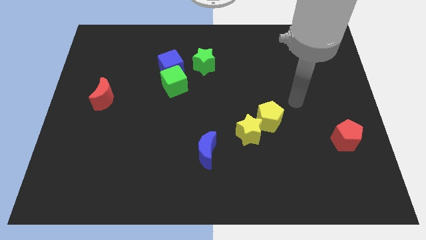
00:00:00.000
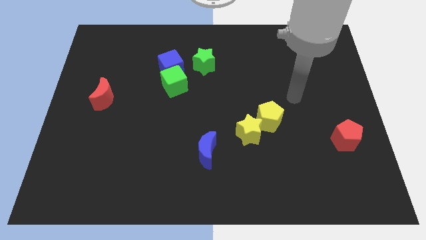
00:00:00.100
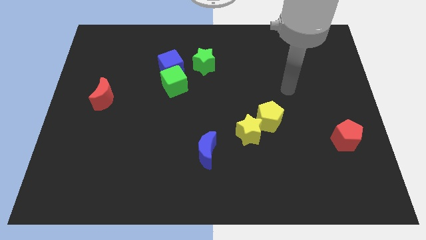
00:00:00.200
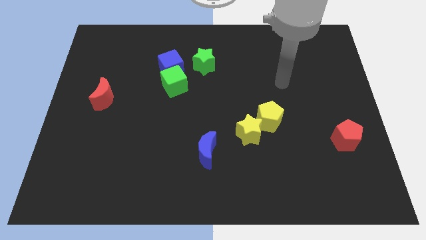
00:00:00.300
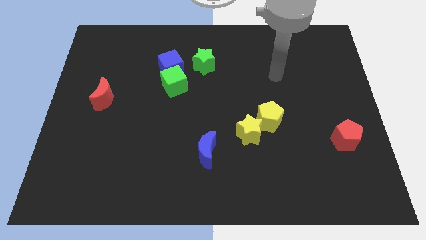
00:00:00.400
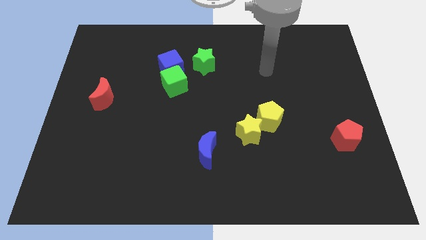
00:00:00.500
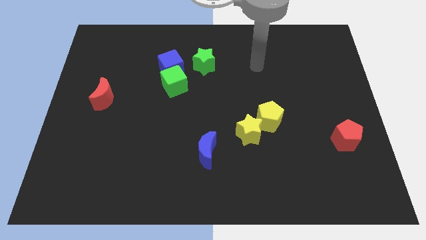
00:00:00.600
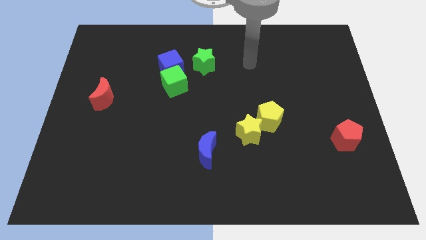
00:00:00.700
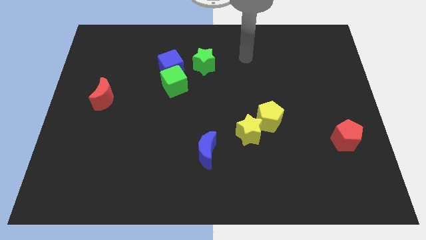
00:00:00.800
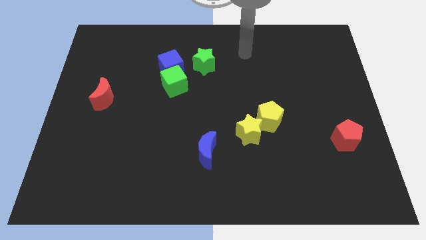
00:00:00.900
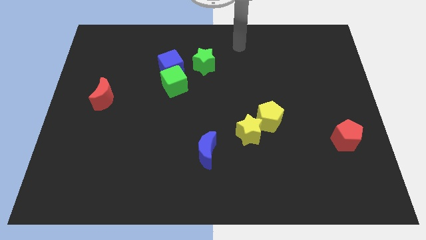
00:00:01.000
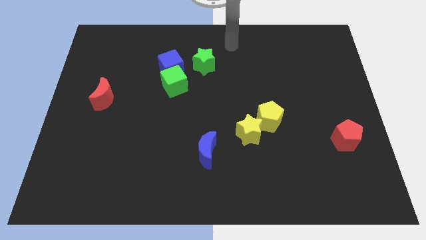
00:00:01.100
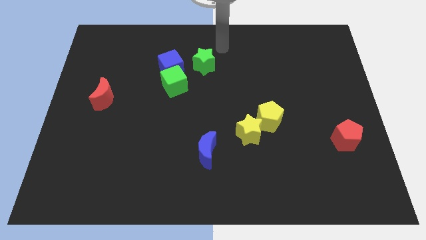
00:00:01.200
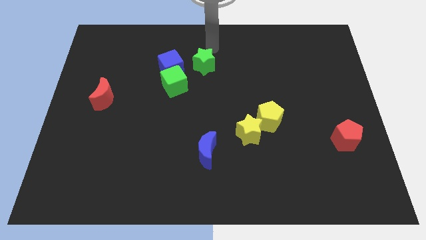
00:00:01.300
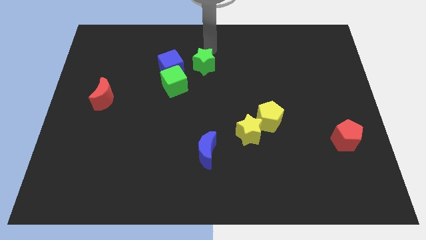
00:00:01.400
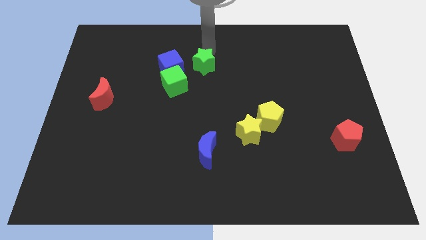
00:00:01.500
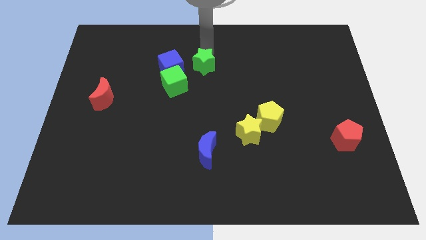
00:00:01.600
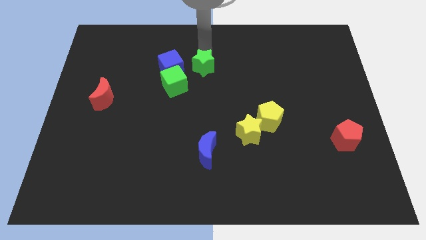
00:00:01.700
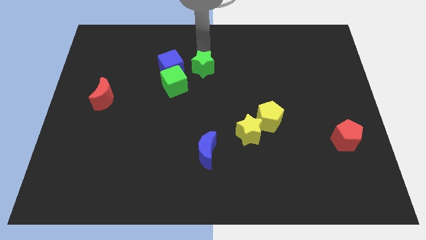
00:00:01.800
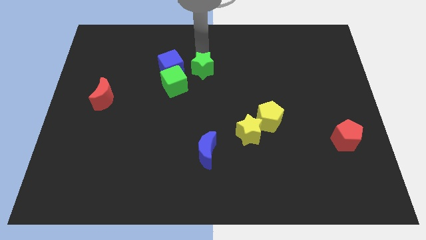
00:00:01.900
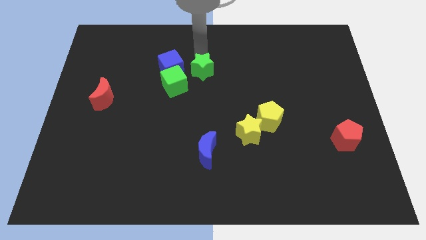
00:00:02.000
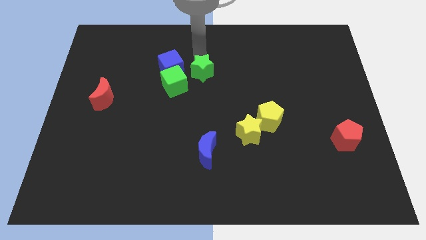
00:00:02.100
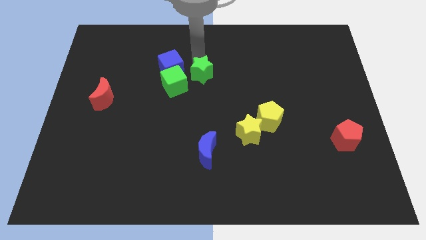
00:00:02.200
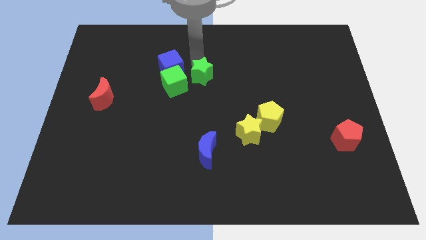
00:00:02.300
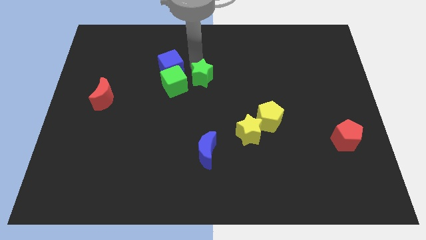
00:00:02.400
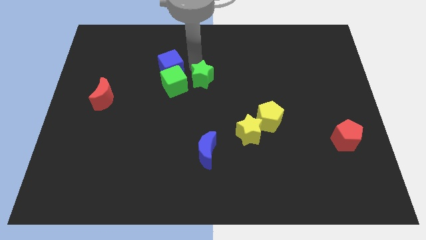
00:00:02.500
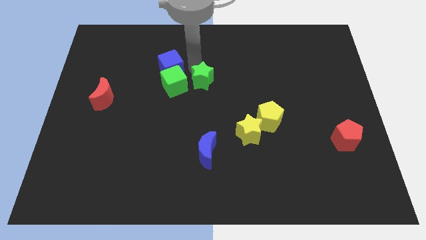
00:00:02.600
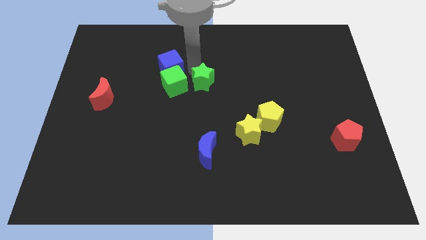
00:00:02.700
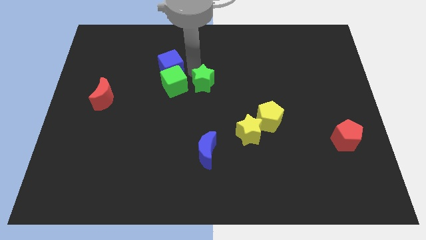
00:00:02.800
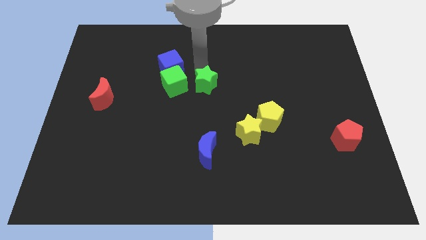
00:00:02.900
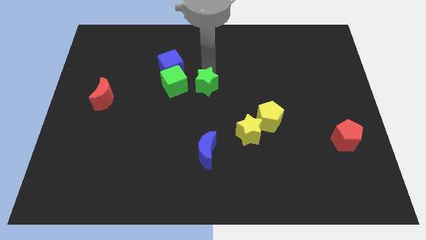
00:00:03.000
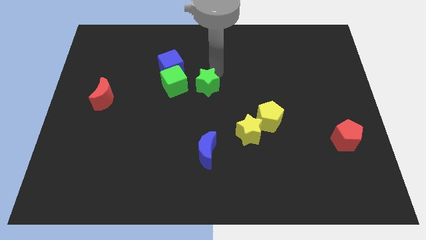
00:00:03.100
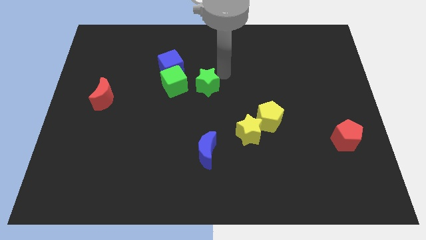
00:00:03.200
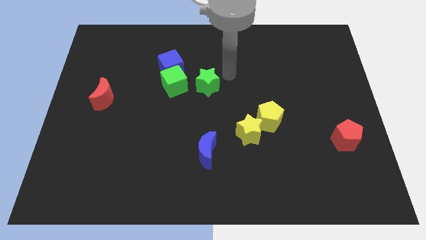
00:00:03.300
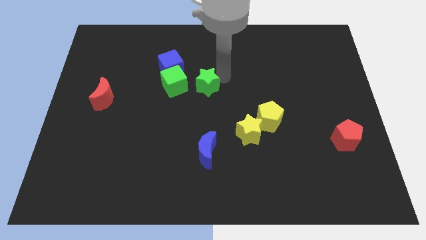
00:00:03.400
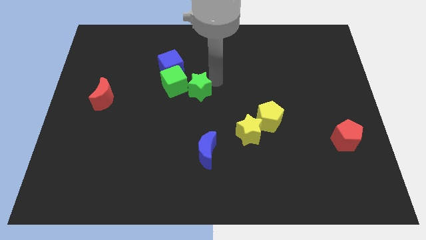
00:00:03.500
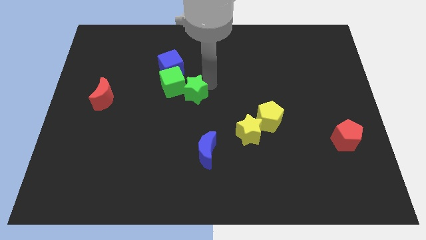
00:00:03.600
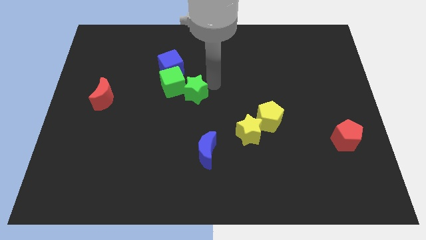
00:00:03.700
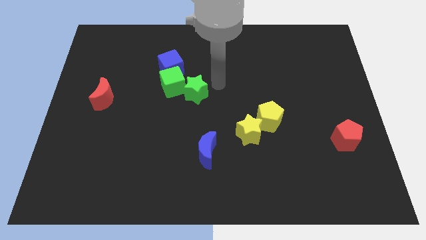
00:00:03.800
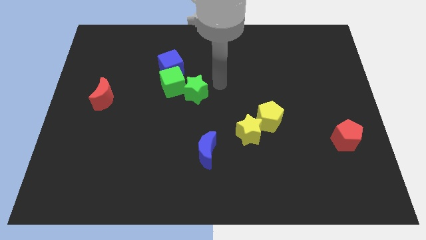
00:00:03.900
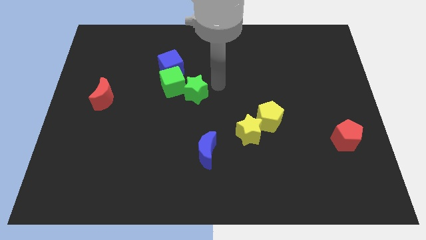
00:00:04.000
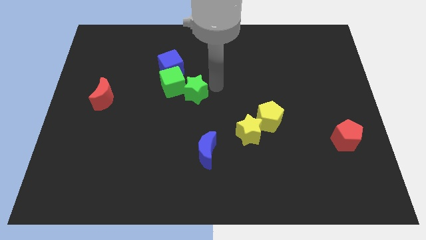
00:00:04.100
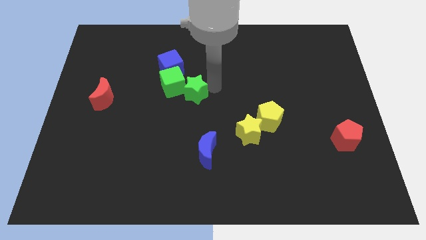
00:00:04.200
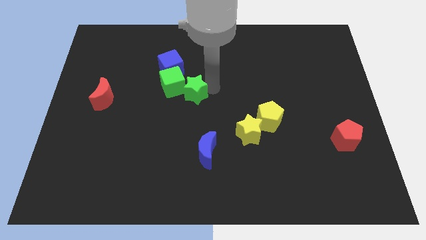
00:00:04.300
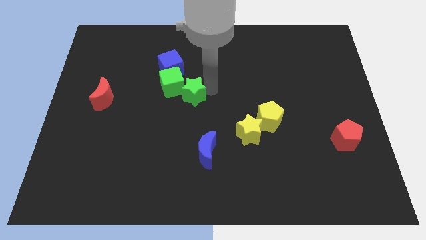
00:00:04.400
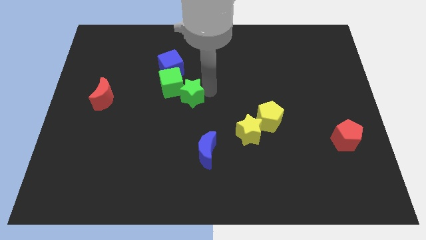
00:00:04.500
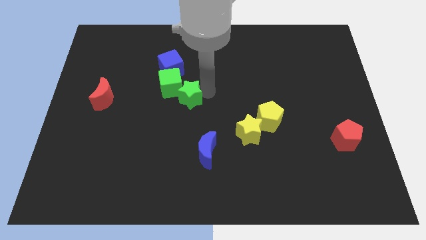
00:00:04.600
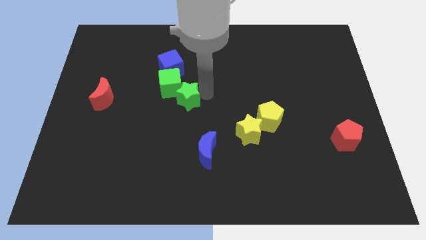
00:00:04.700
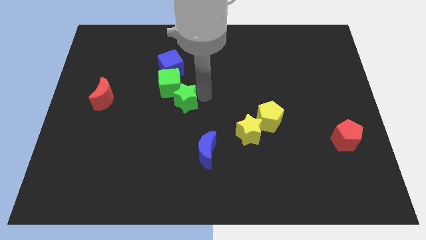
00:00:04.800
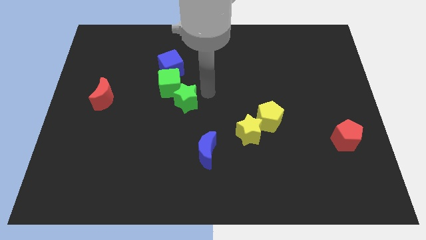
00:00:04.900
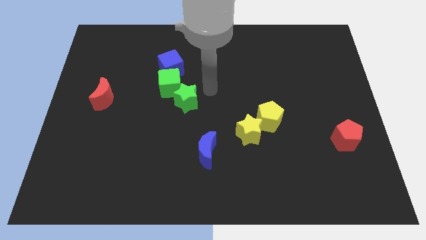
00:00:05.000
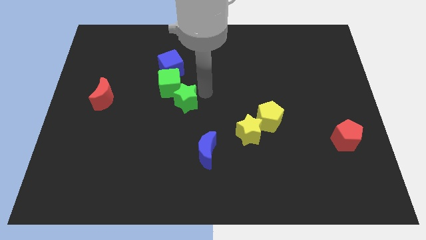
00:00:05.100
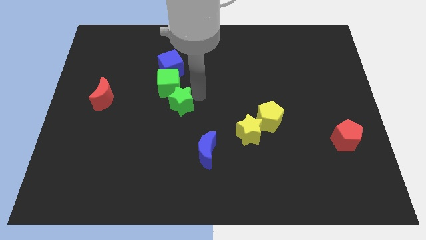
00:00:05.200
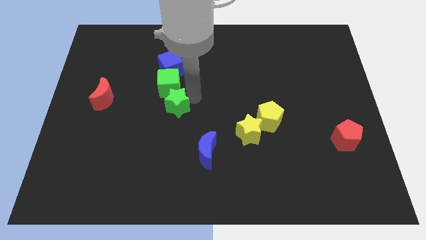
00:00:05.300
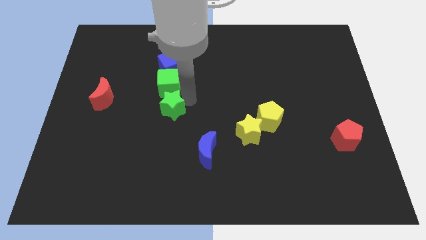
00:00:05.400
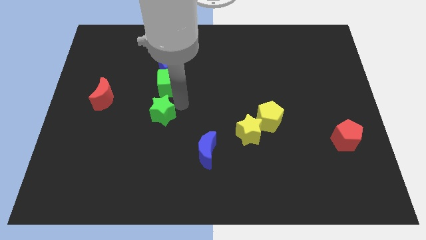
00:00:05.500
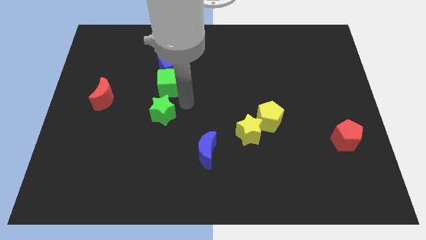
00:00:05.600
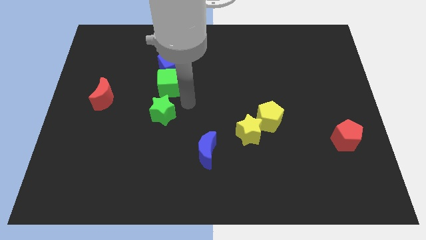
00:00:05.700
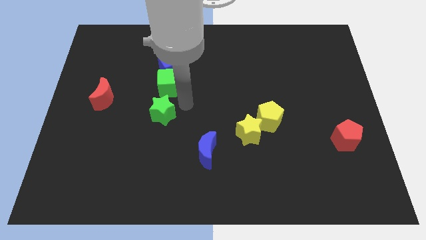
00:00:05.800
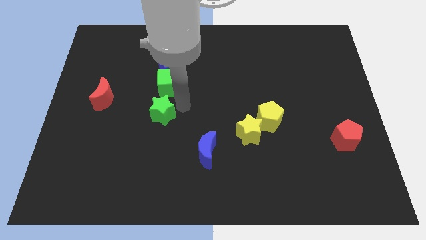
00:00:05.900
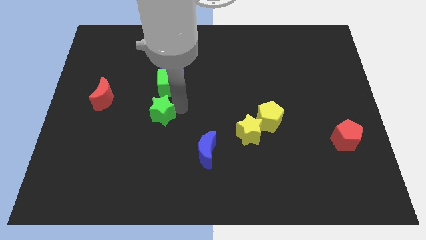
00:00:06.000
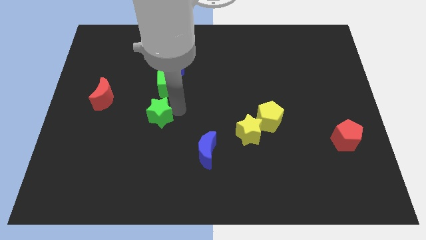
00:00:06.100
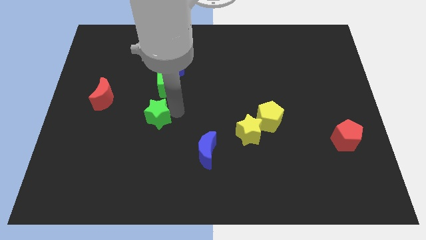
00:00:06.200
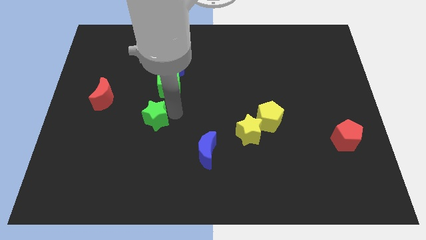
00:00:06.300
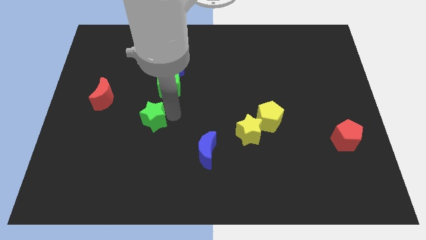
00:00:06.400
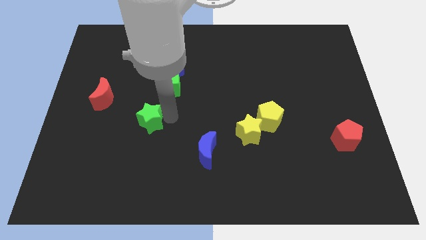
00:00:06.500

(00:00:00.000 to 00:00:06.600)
move the green star down and left

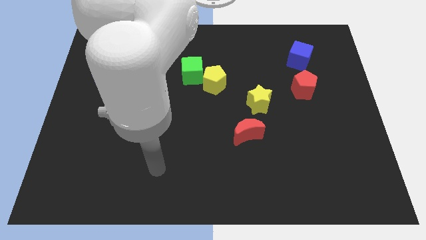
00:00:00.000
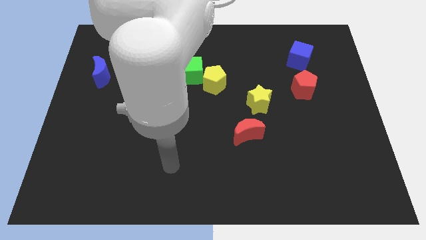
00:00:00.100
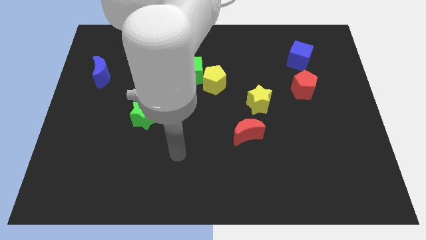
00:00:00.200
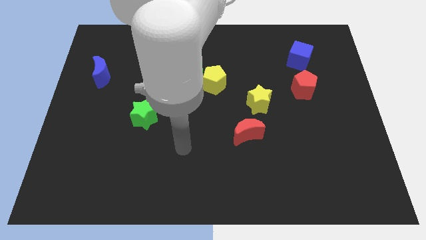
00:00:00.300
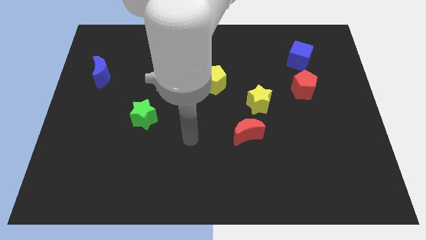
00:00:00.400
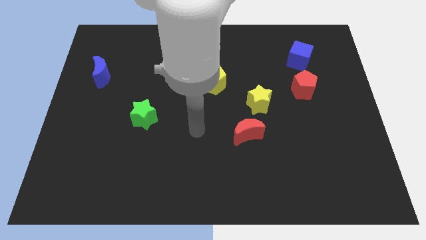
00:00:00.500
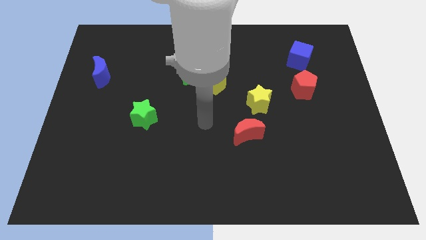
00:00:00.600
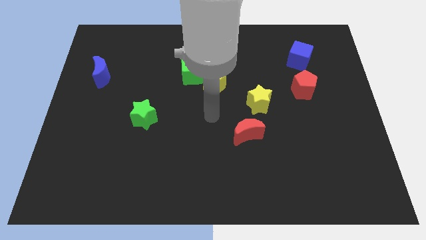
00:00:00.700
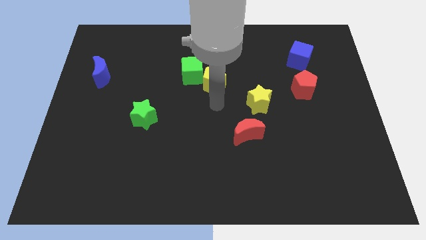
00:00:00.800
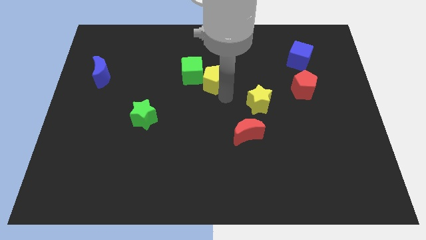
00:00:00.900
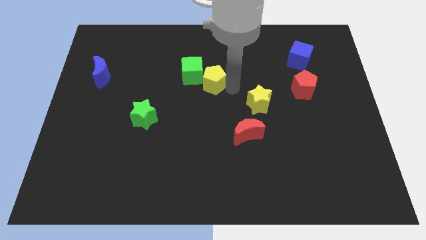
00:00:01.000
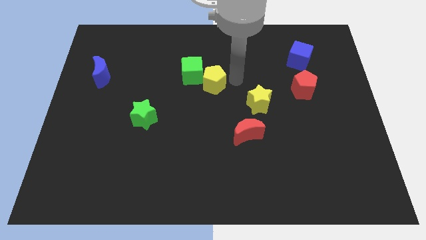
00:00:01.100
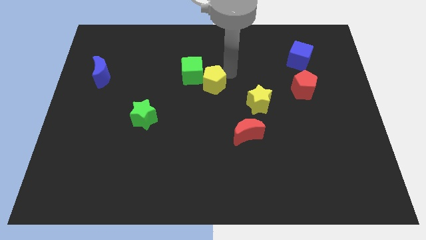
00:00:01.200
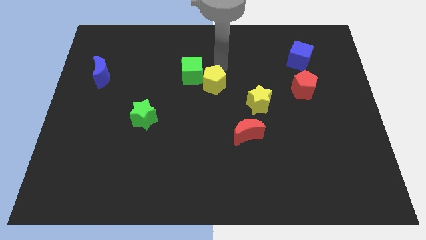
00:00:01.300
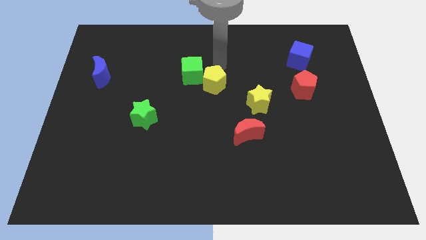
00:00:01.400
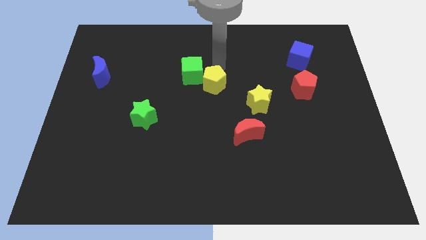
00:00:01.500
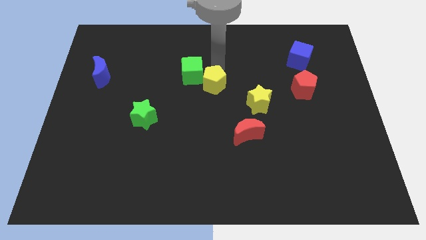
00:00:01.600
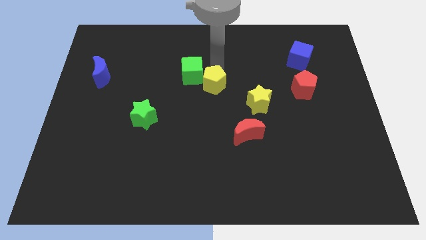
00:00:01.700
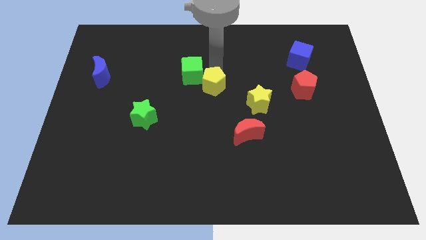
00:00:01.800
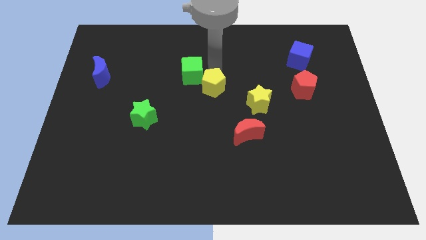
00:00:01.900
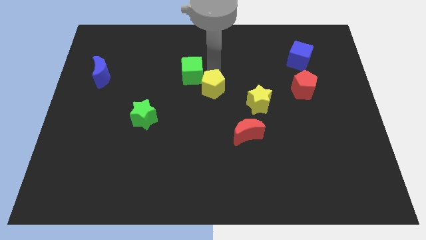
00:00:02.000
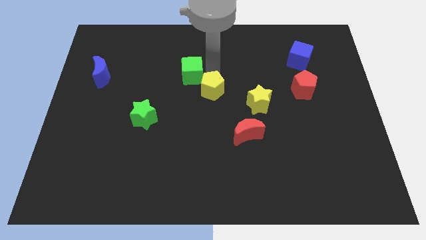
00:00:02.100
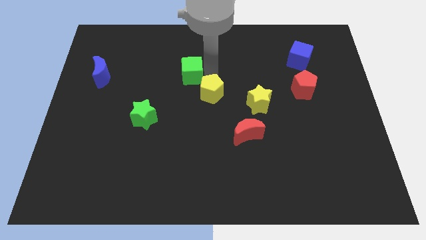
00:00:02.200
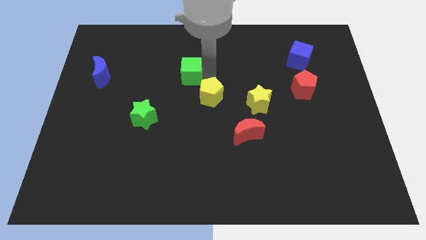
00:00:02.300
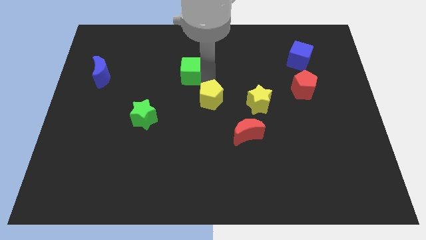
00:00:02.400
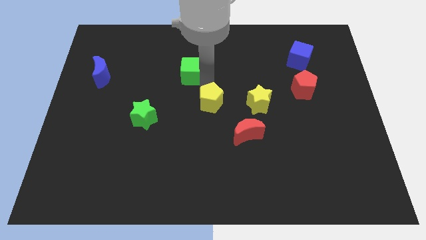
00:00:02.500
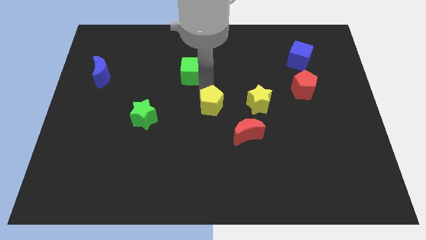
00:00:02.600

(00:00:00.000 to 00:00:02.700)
slide the yellow pentagon down a little bit
